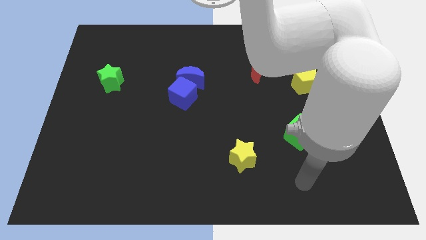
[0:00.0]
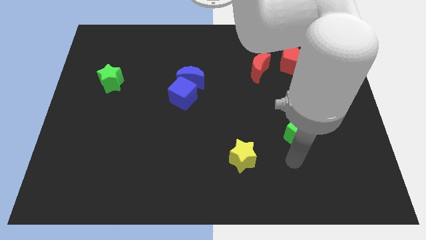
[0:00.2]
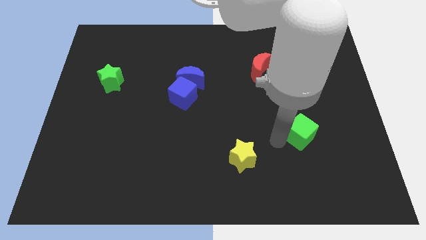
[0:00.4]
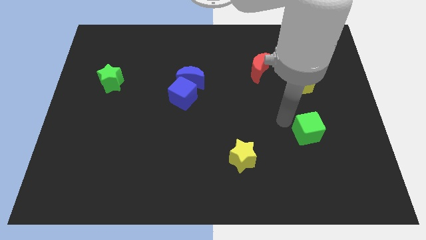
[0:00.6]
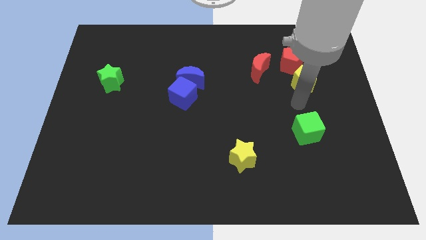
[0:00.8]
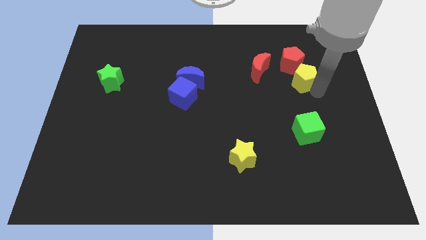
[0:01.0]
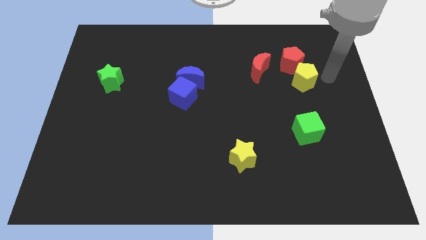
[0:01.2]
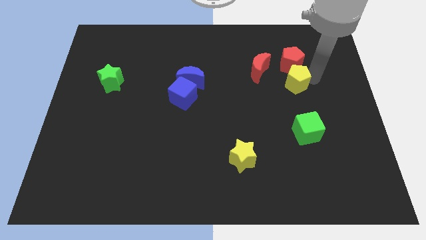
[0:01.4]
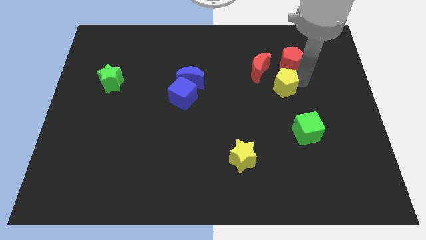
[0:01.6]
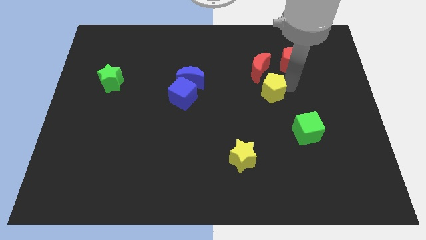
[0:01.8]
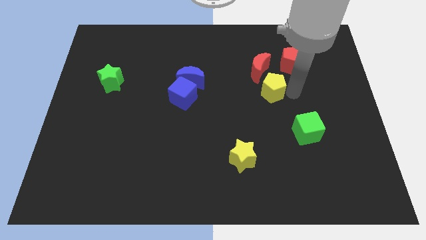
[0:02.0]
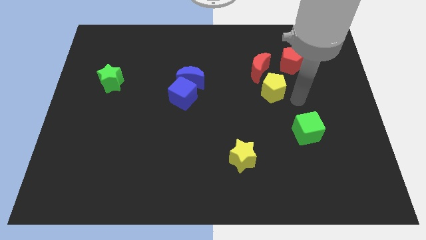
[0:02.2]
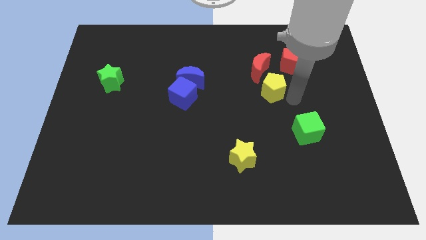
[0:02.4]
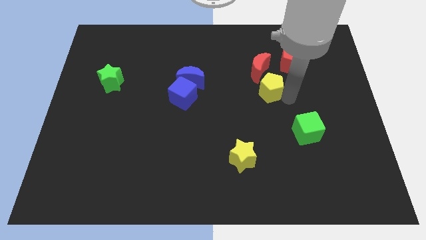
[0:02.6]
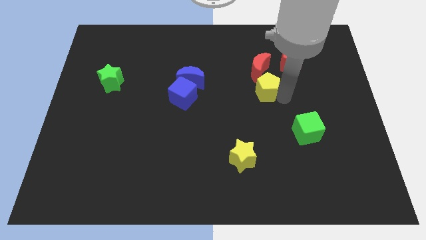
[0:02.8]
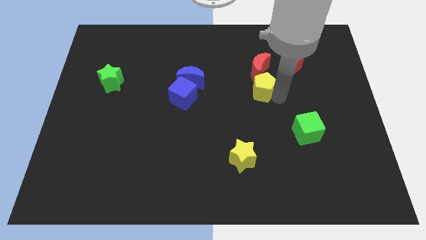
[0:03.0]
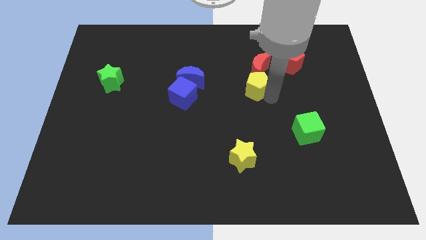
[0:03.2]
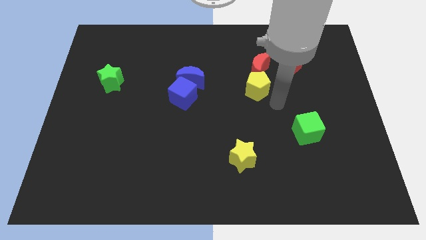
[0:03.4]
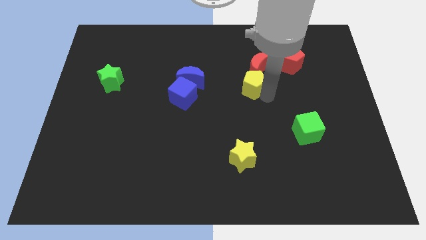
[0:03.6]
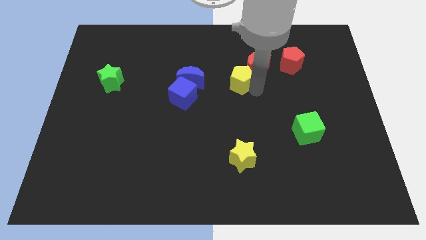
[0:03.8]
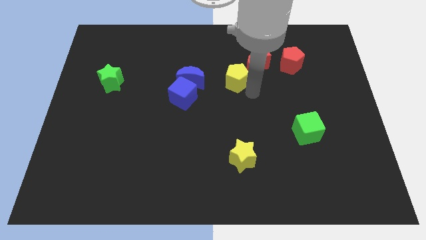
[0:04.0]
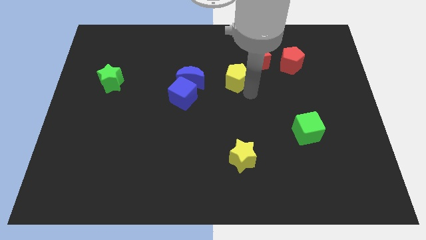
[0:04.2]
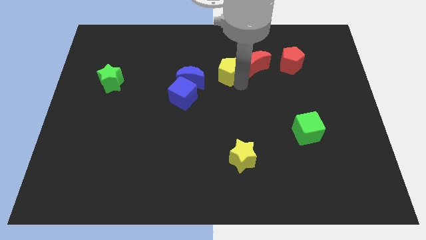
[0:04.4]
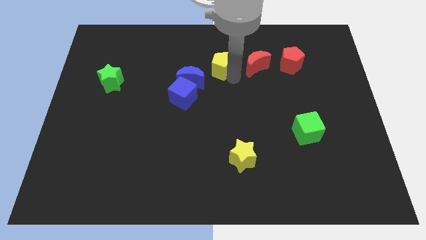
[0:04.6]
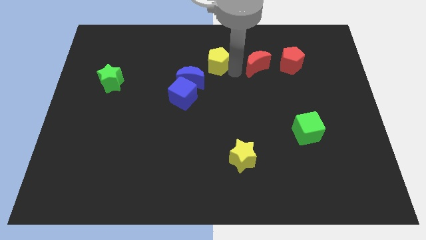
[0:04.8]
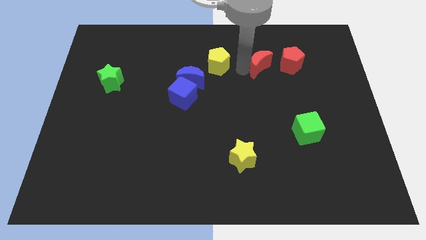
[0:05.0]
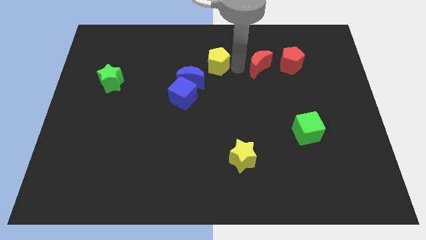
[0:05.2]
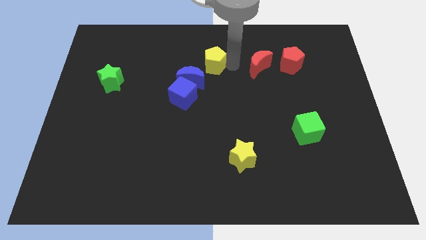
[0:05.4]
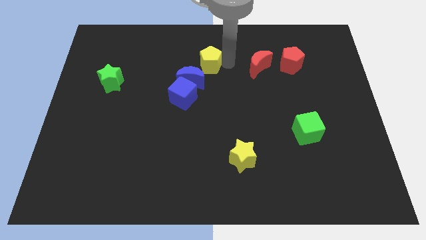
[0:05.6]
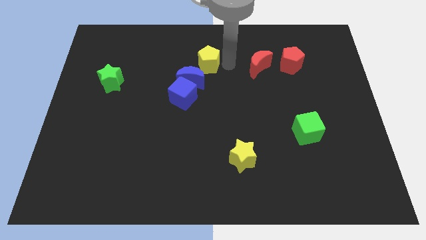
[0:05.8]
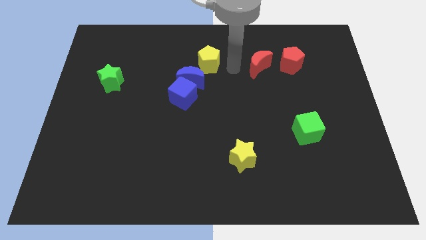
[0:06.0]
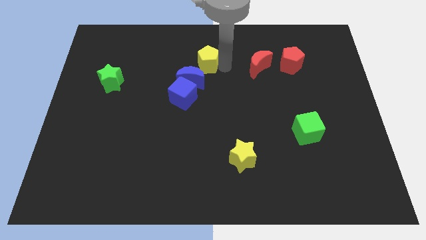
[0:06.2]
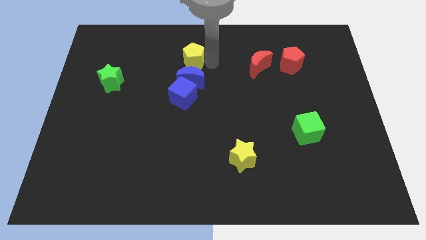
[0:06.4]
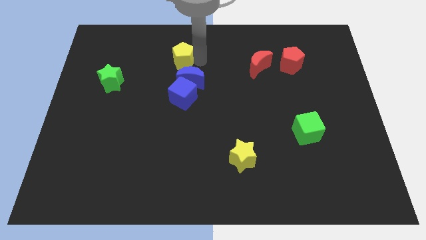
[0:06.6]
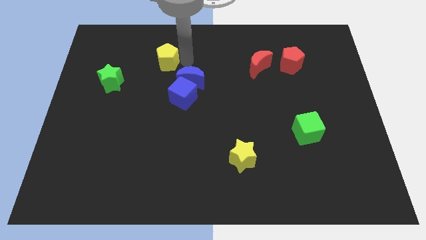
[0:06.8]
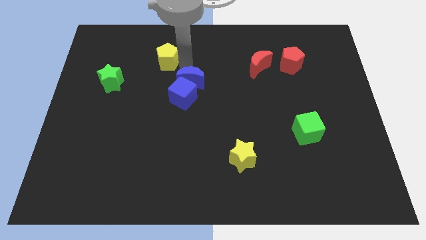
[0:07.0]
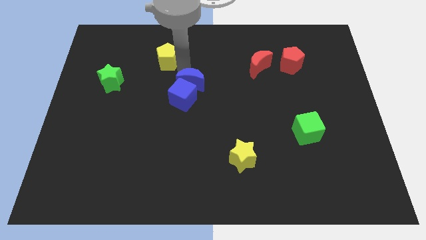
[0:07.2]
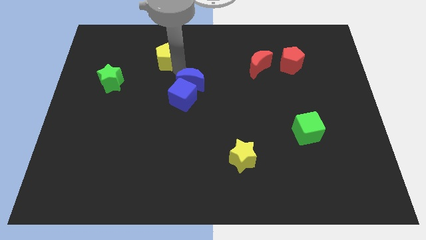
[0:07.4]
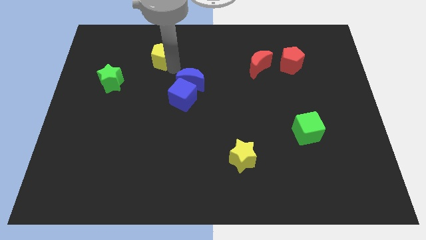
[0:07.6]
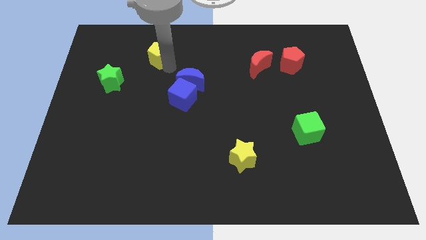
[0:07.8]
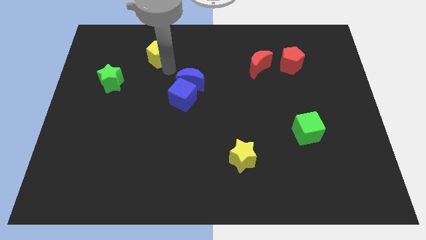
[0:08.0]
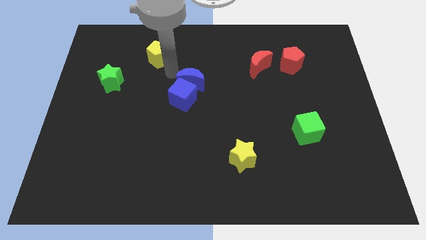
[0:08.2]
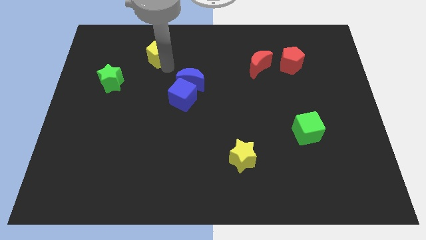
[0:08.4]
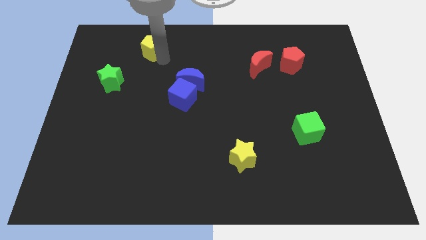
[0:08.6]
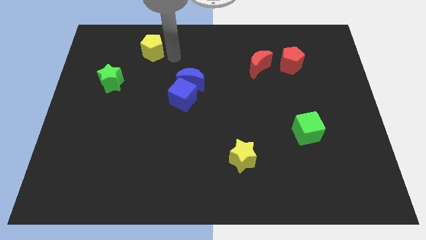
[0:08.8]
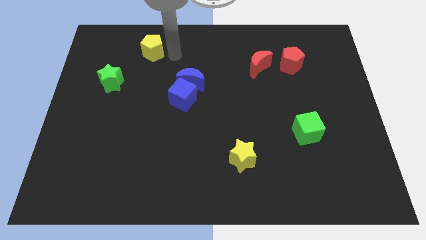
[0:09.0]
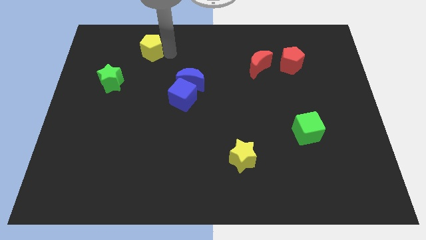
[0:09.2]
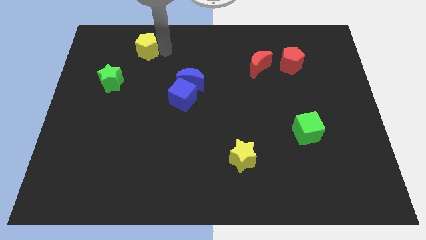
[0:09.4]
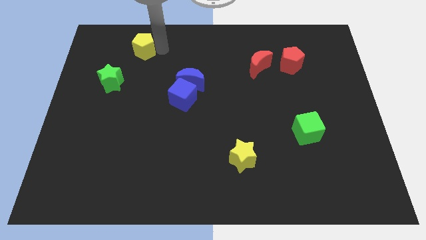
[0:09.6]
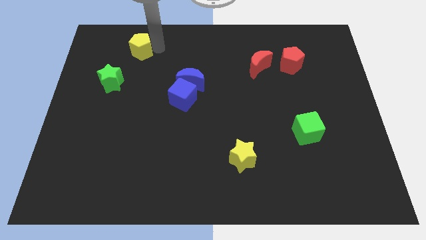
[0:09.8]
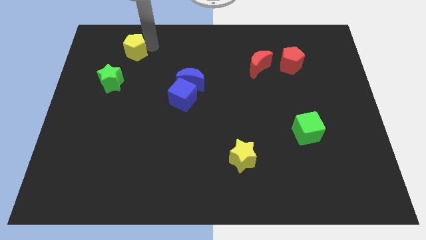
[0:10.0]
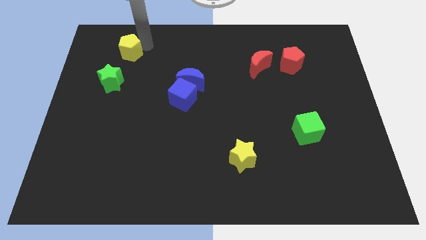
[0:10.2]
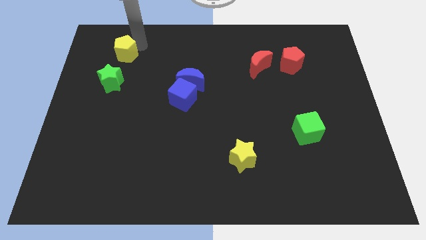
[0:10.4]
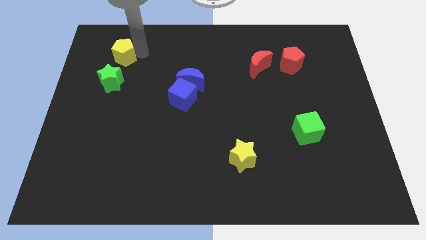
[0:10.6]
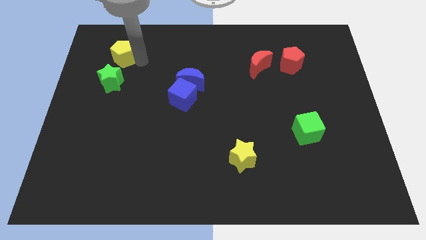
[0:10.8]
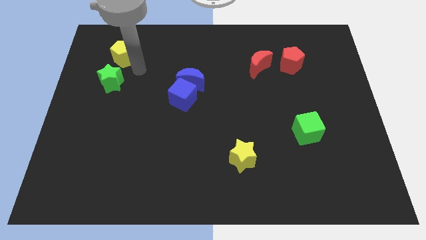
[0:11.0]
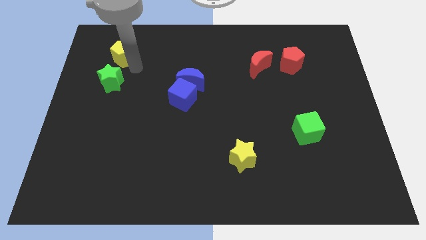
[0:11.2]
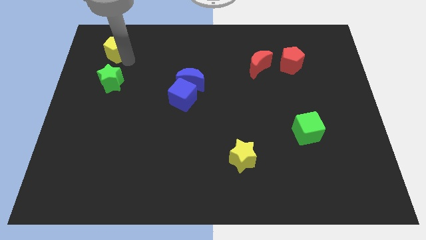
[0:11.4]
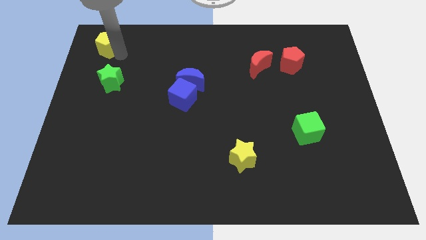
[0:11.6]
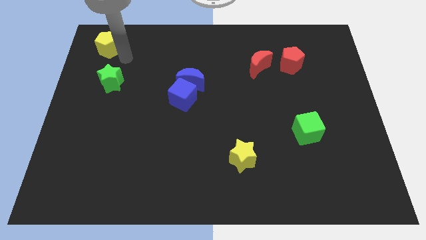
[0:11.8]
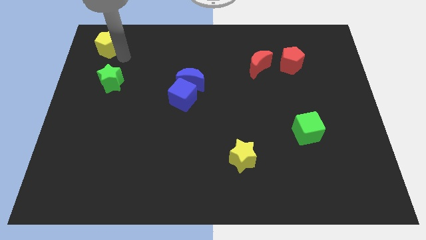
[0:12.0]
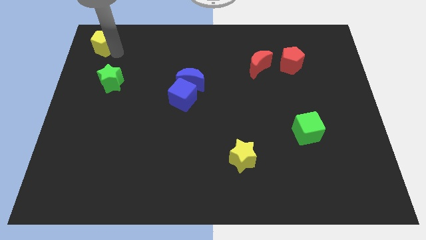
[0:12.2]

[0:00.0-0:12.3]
move the yellow pentagon to the top left of the board

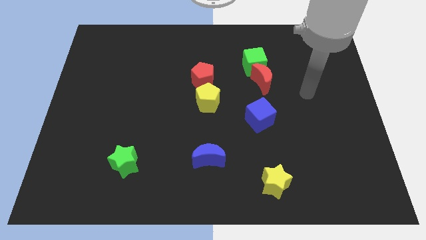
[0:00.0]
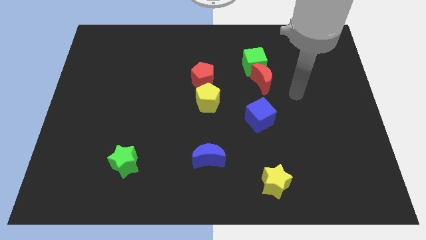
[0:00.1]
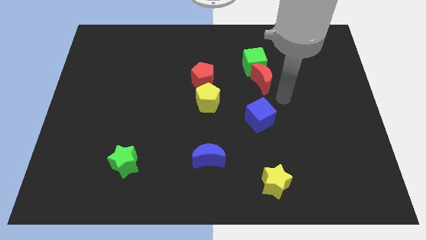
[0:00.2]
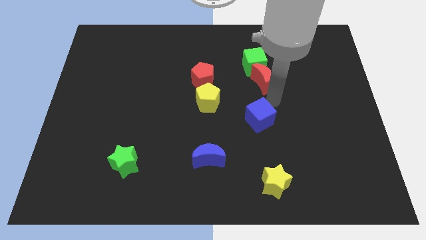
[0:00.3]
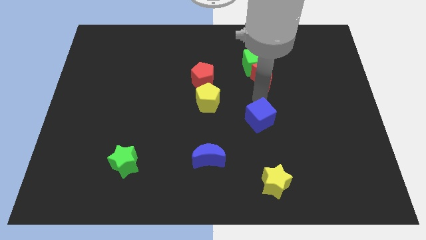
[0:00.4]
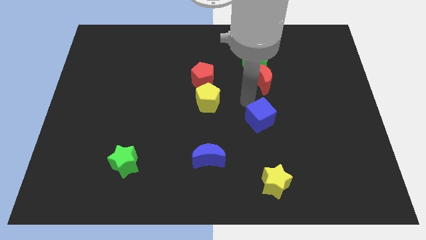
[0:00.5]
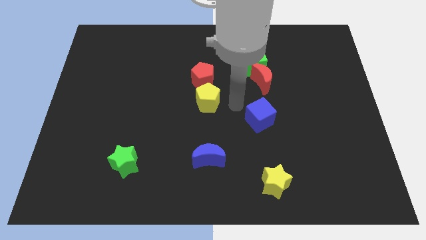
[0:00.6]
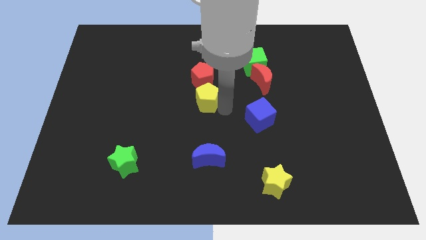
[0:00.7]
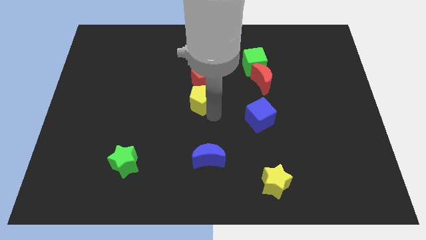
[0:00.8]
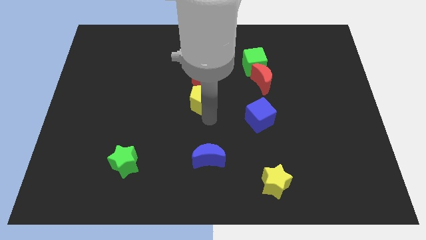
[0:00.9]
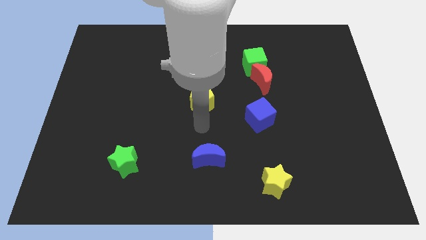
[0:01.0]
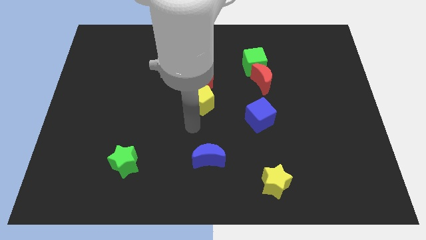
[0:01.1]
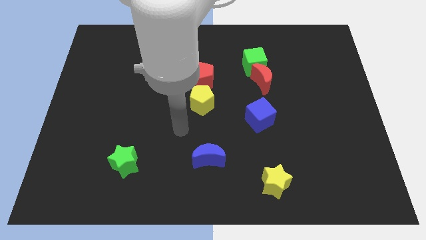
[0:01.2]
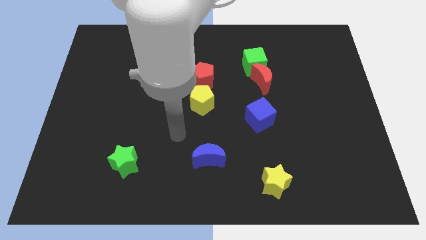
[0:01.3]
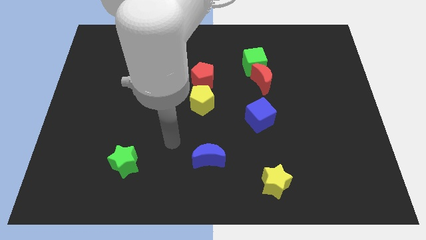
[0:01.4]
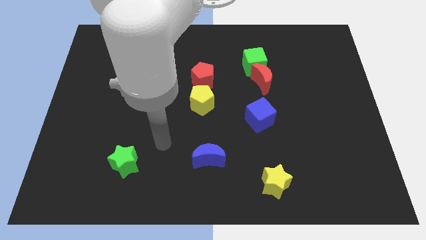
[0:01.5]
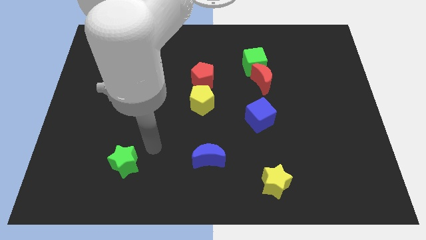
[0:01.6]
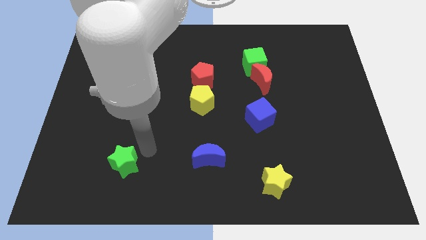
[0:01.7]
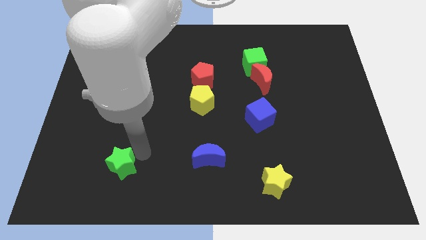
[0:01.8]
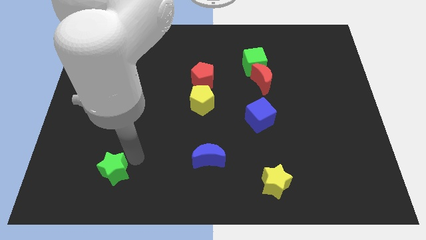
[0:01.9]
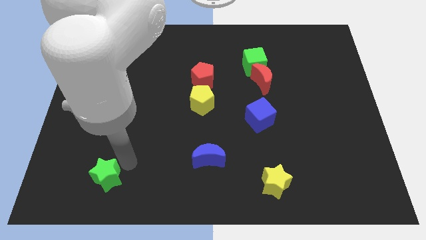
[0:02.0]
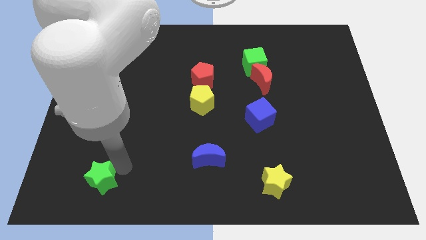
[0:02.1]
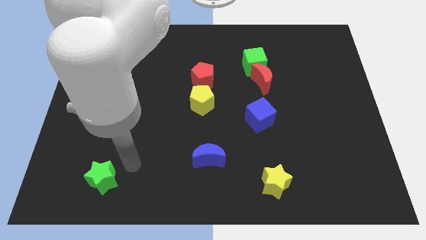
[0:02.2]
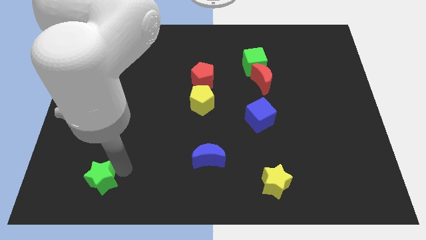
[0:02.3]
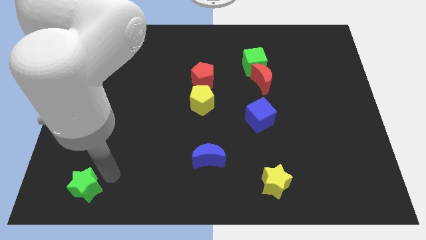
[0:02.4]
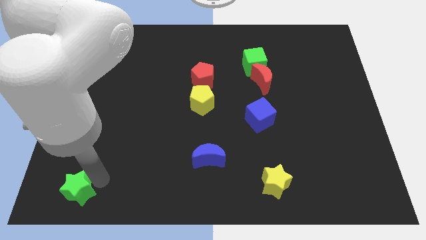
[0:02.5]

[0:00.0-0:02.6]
slide the green star to the bottom left of the board
